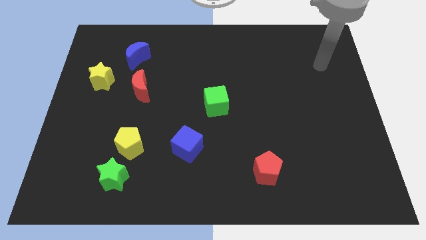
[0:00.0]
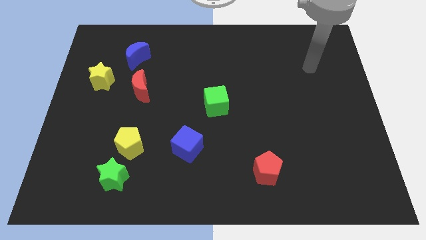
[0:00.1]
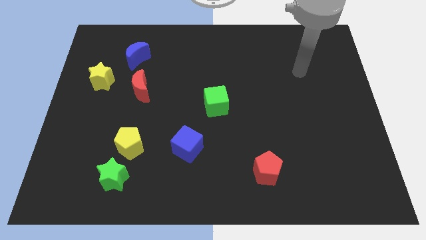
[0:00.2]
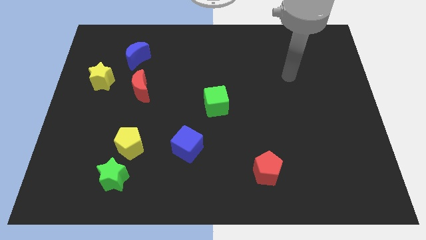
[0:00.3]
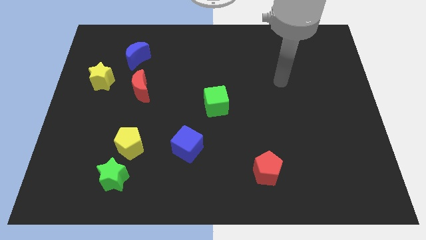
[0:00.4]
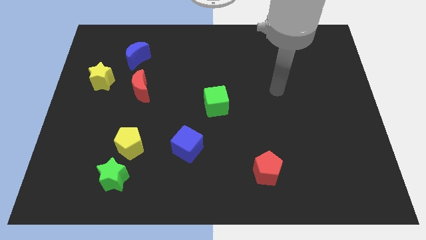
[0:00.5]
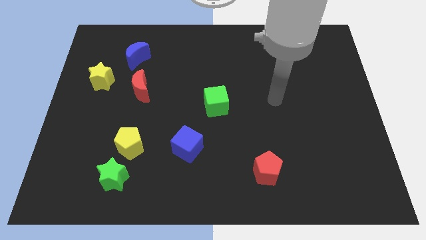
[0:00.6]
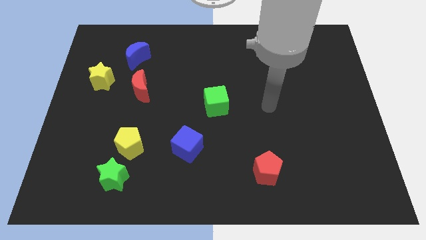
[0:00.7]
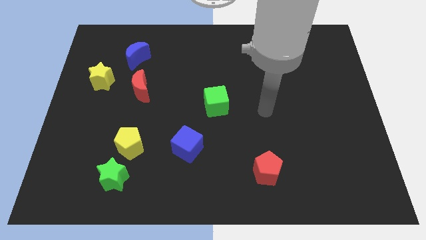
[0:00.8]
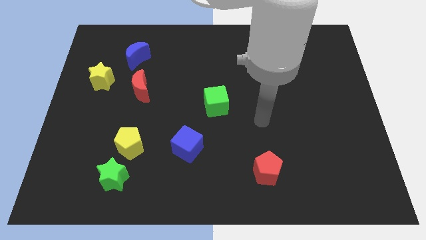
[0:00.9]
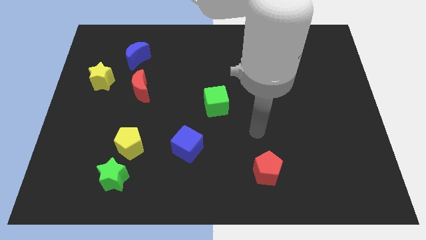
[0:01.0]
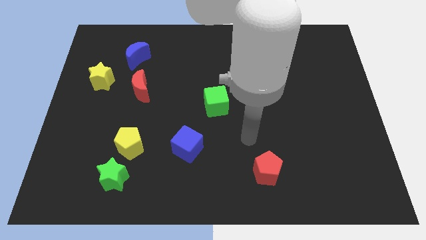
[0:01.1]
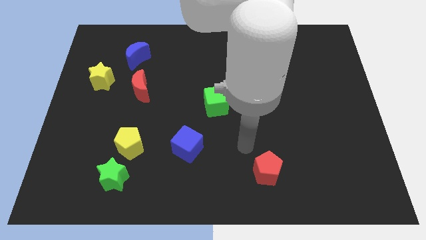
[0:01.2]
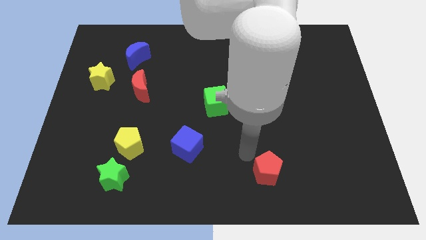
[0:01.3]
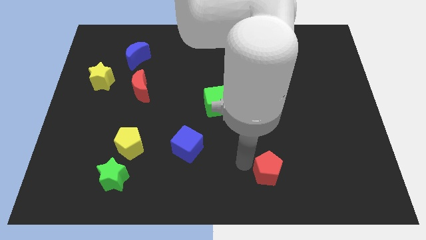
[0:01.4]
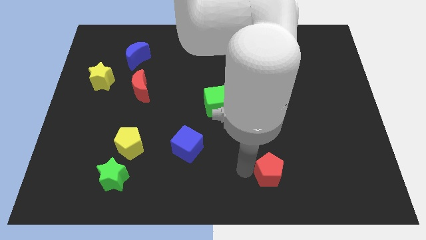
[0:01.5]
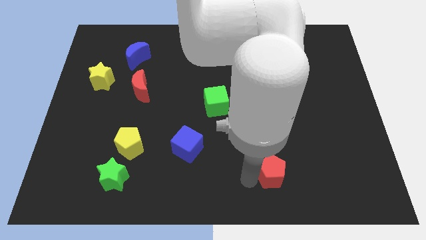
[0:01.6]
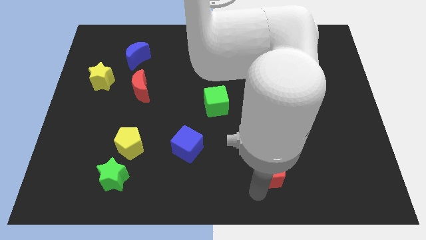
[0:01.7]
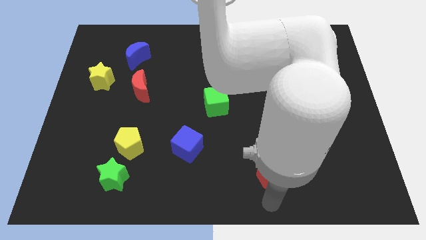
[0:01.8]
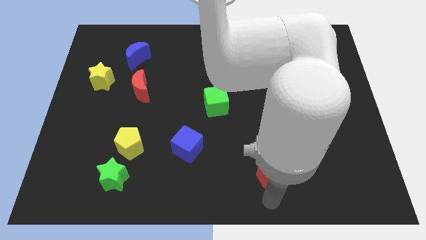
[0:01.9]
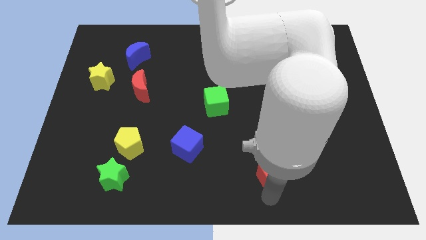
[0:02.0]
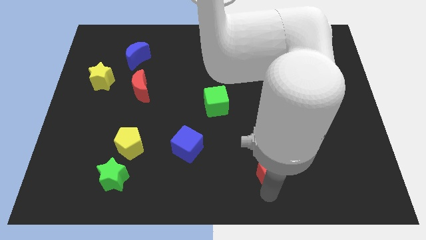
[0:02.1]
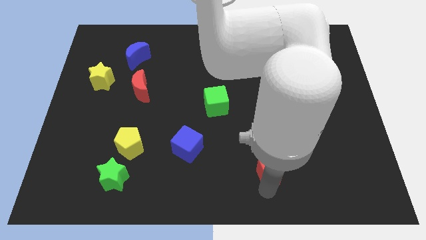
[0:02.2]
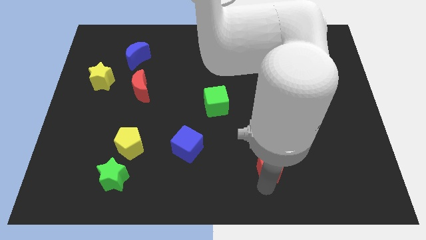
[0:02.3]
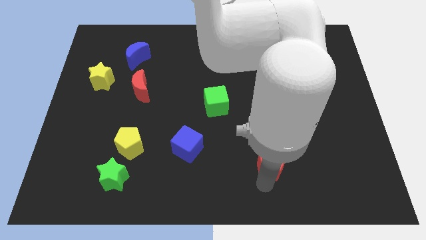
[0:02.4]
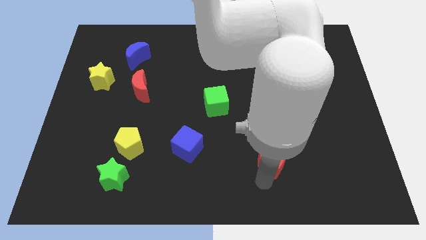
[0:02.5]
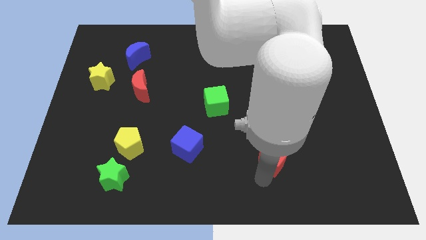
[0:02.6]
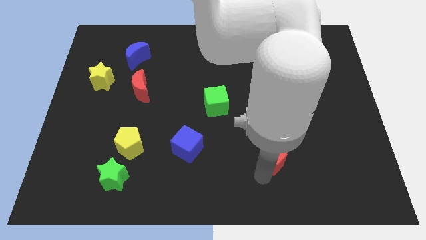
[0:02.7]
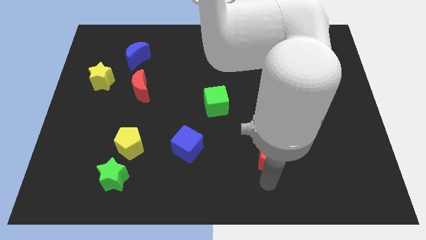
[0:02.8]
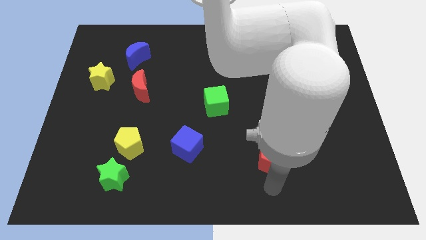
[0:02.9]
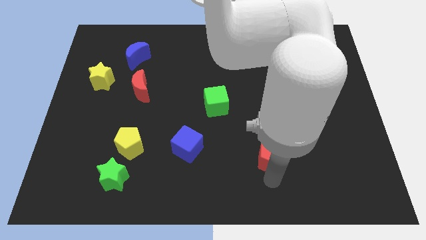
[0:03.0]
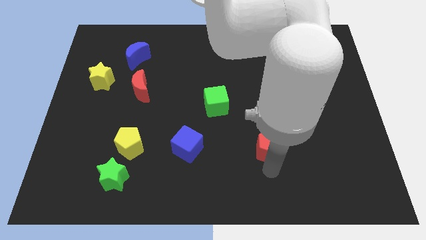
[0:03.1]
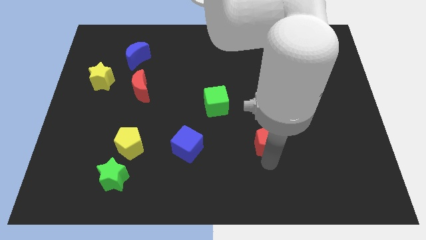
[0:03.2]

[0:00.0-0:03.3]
move the red pentagon a little bit up

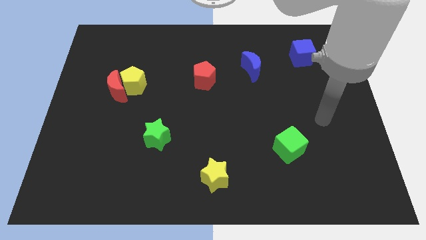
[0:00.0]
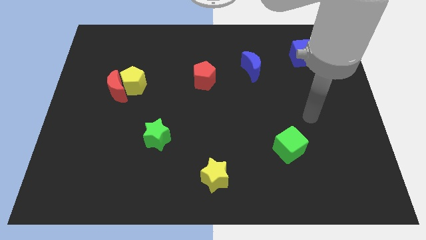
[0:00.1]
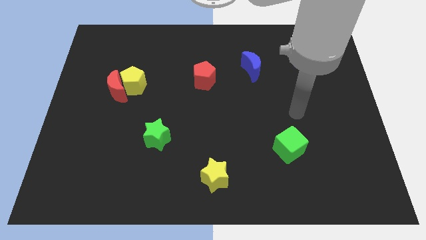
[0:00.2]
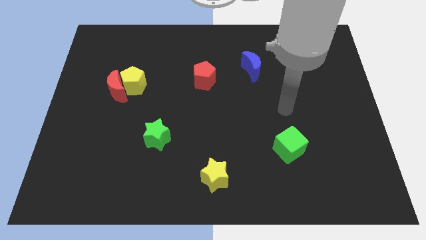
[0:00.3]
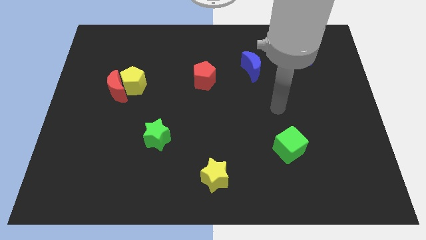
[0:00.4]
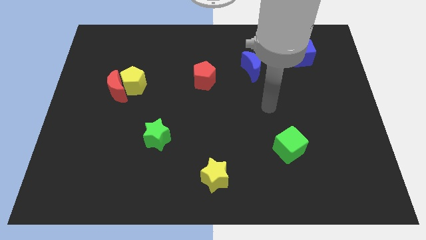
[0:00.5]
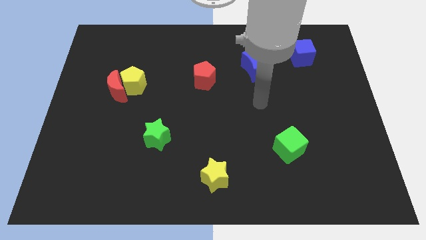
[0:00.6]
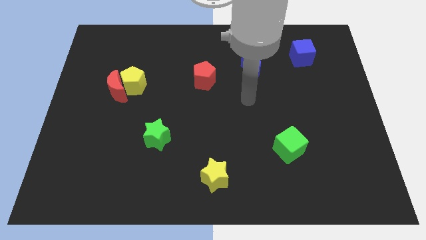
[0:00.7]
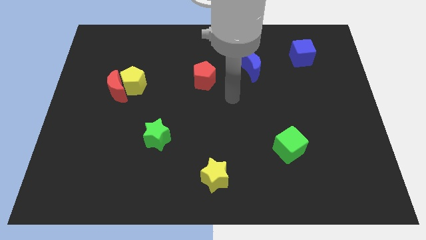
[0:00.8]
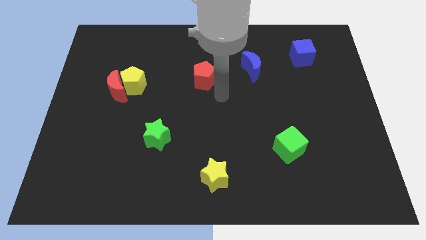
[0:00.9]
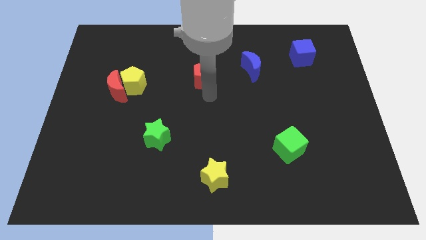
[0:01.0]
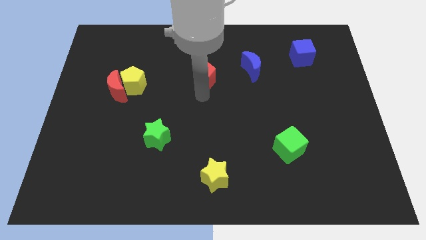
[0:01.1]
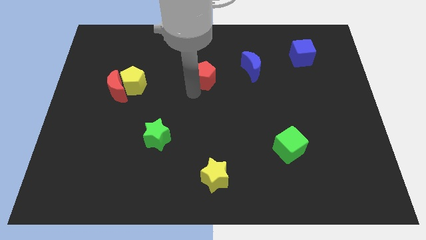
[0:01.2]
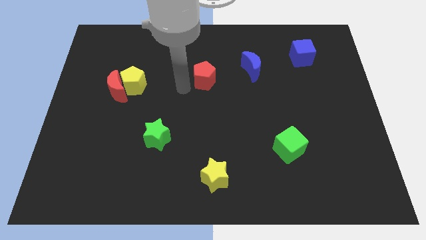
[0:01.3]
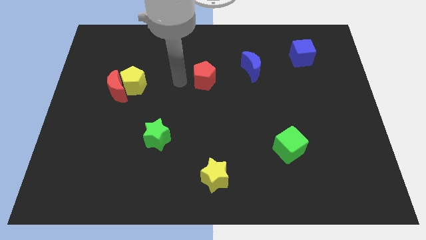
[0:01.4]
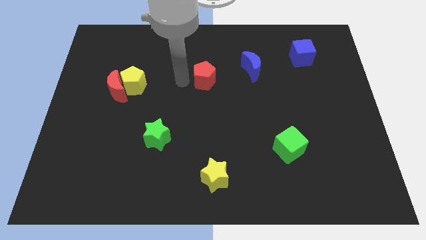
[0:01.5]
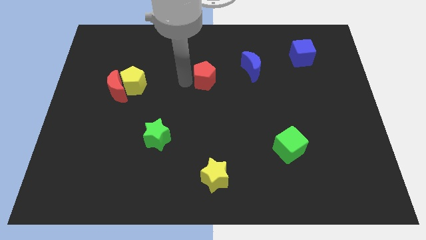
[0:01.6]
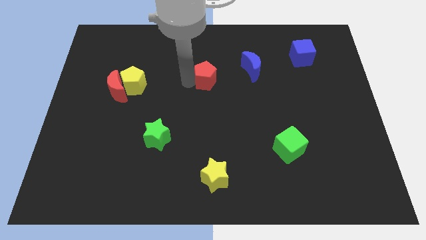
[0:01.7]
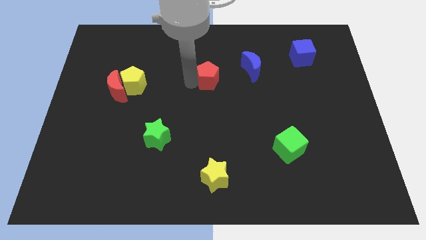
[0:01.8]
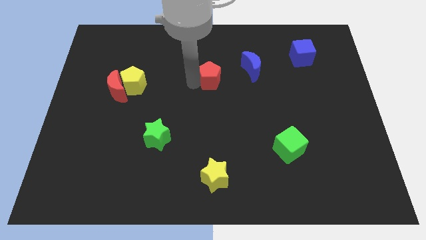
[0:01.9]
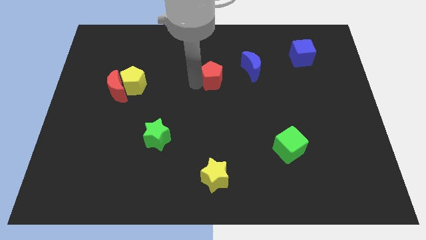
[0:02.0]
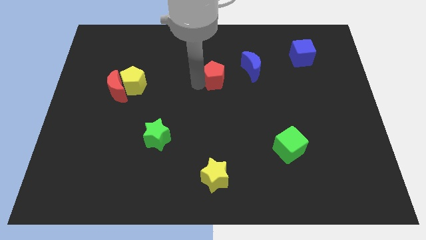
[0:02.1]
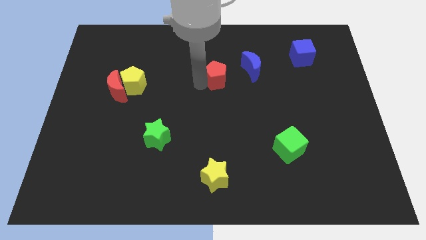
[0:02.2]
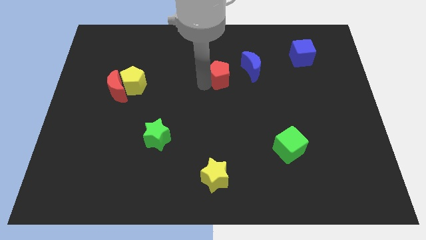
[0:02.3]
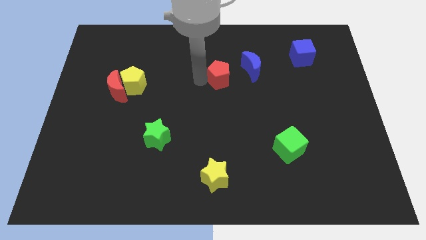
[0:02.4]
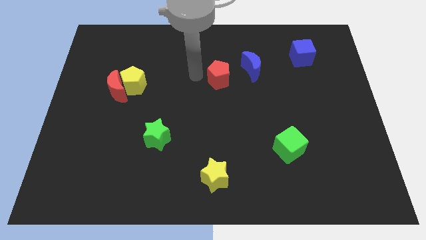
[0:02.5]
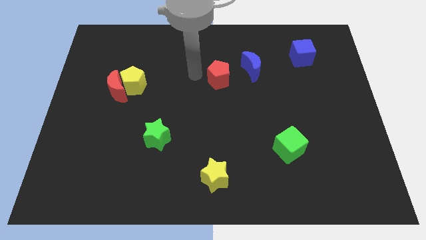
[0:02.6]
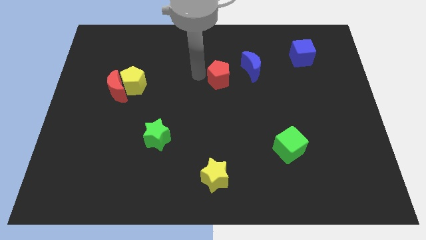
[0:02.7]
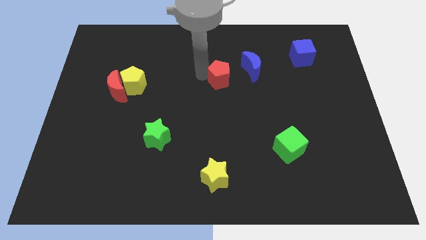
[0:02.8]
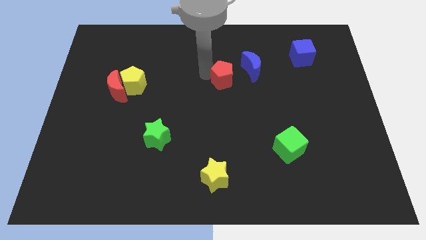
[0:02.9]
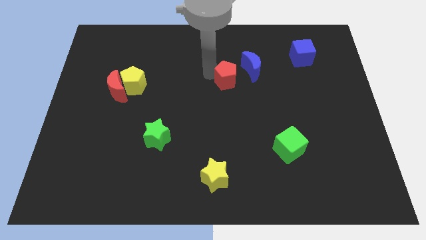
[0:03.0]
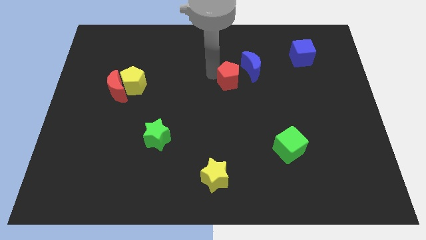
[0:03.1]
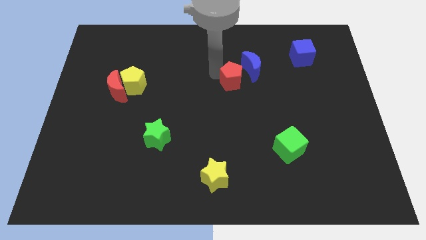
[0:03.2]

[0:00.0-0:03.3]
slightly move the red pentagon right

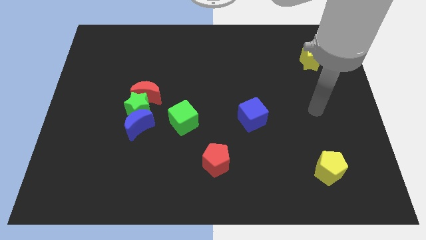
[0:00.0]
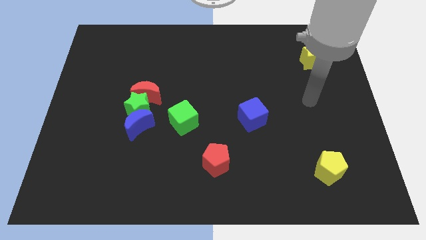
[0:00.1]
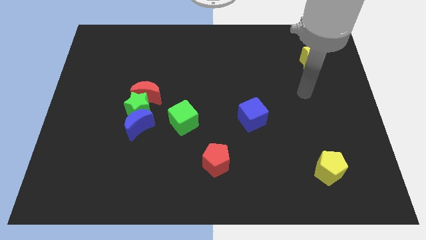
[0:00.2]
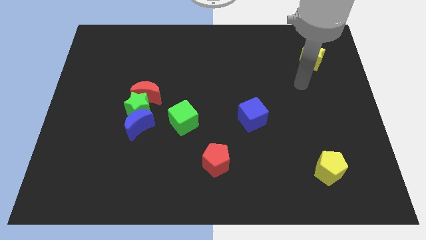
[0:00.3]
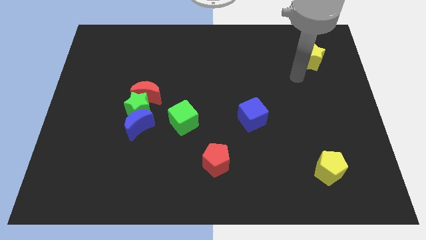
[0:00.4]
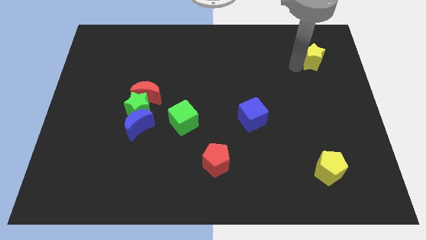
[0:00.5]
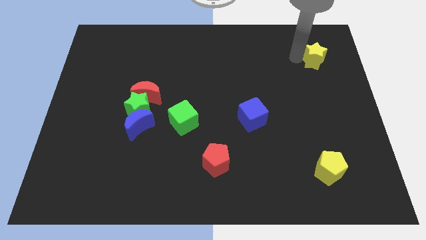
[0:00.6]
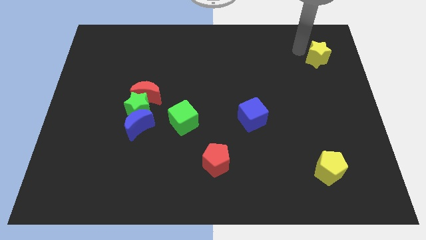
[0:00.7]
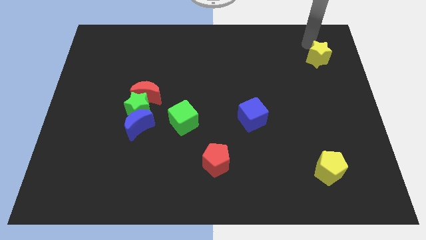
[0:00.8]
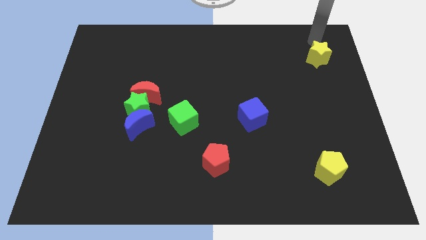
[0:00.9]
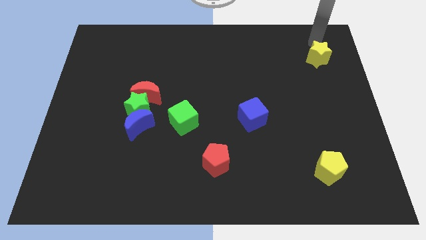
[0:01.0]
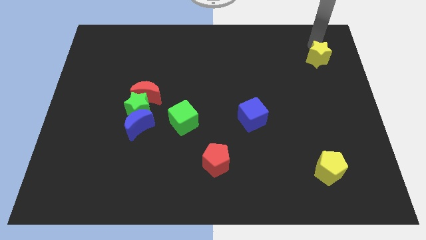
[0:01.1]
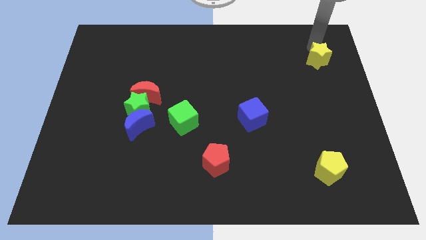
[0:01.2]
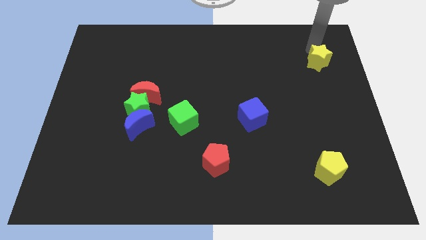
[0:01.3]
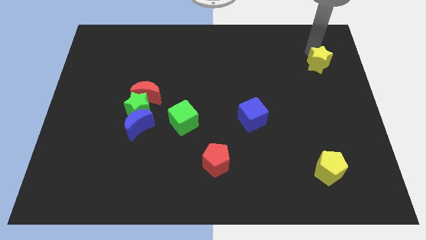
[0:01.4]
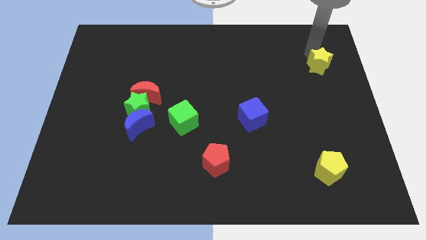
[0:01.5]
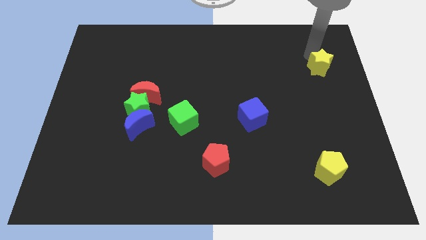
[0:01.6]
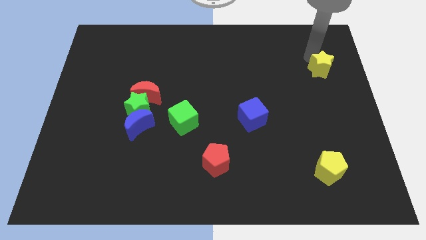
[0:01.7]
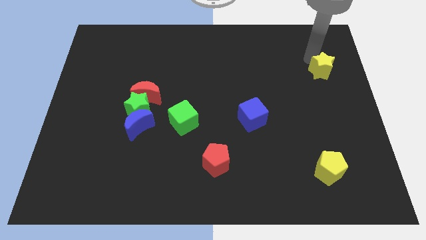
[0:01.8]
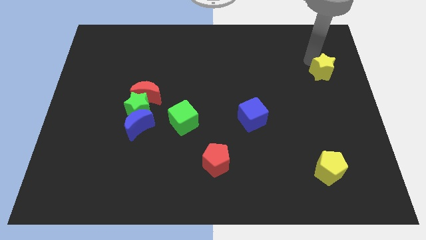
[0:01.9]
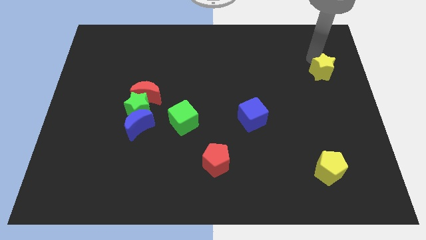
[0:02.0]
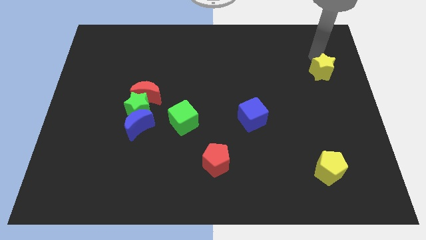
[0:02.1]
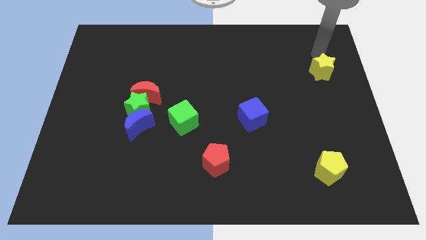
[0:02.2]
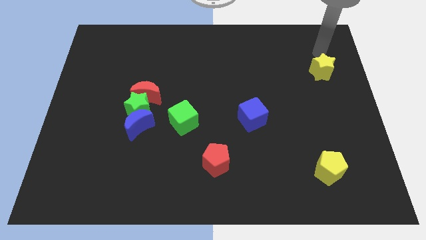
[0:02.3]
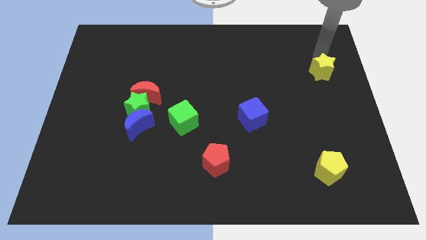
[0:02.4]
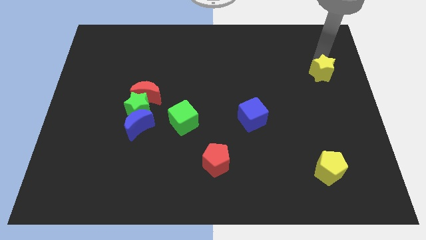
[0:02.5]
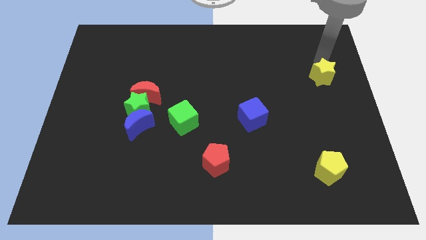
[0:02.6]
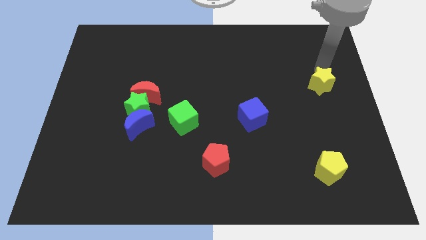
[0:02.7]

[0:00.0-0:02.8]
slightly move the yellow star down
